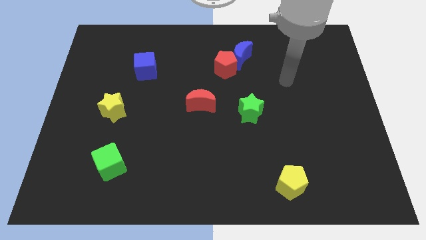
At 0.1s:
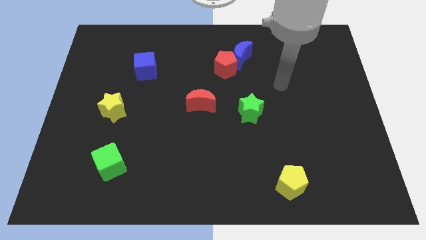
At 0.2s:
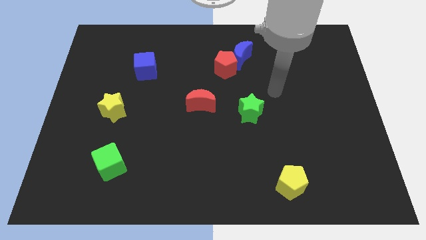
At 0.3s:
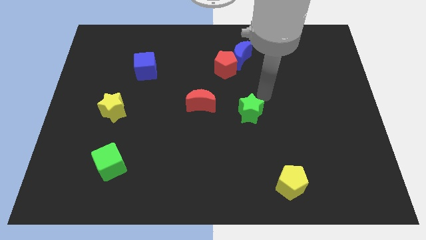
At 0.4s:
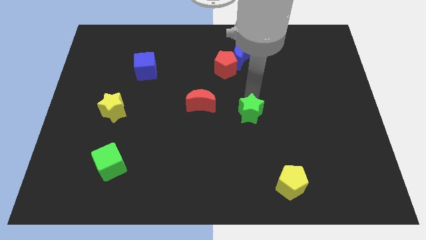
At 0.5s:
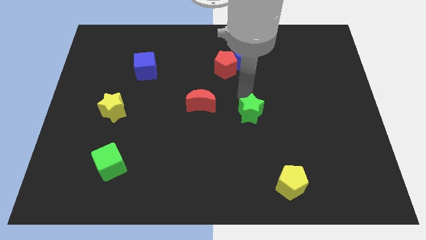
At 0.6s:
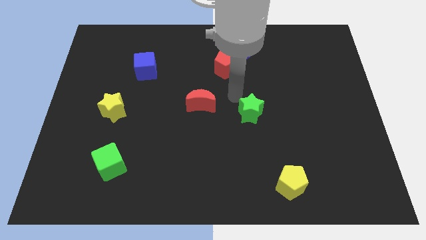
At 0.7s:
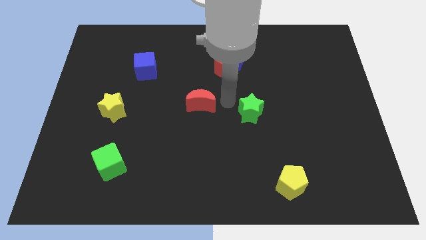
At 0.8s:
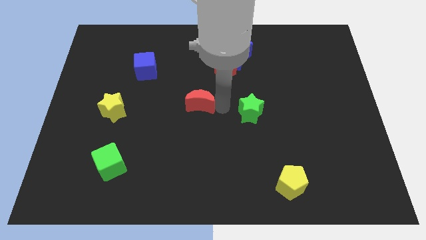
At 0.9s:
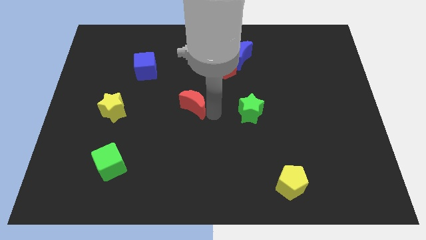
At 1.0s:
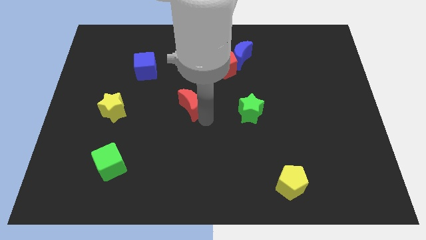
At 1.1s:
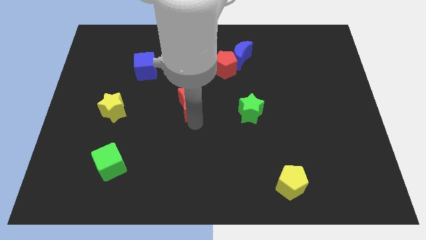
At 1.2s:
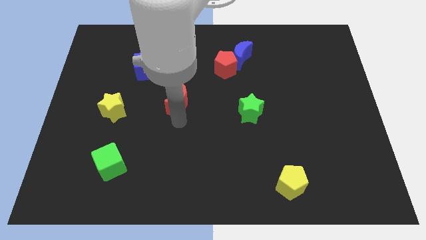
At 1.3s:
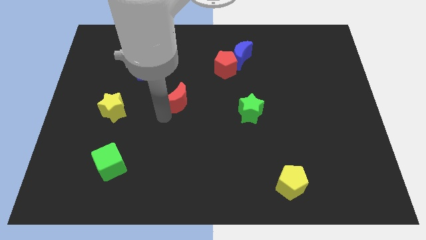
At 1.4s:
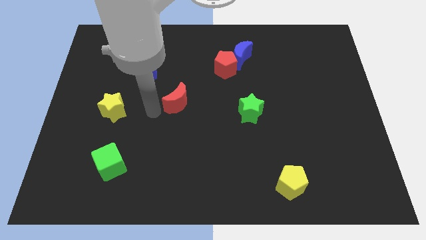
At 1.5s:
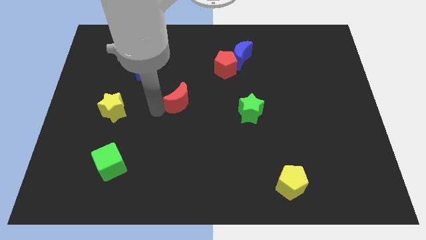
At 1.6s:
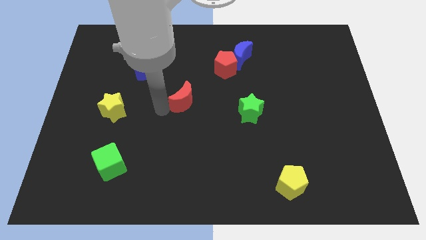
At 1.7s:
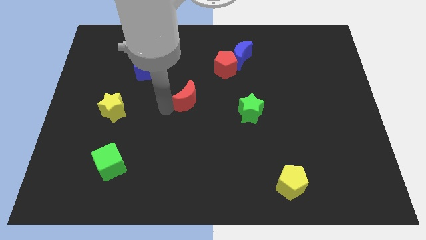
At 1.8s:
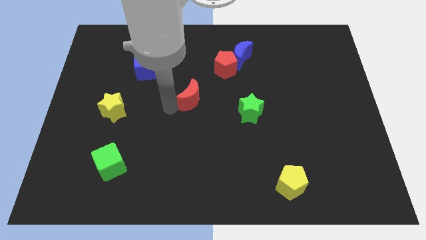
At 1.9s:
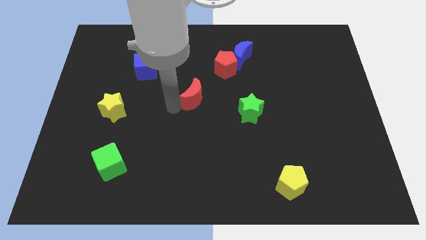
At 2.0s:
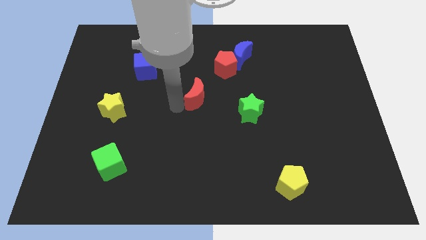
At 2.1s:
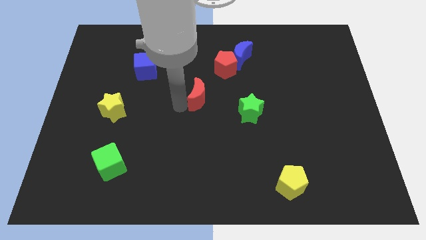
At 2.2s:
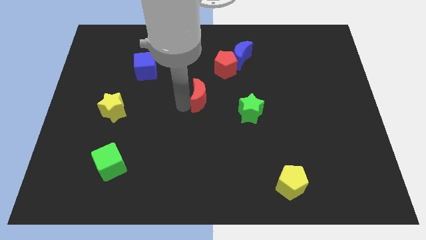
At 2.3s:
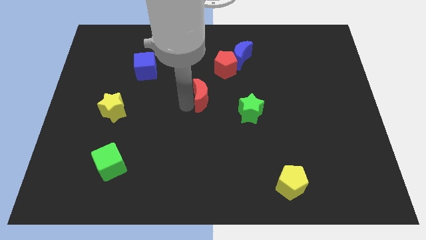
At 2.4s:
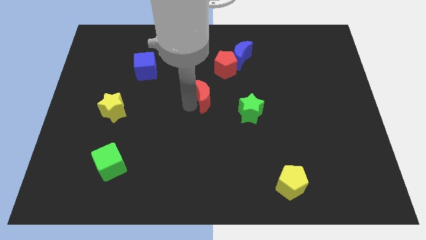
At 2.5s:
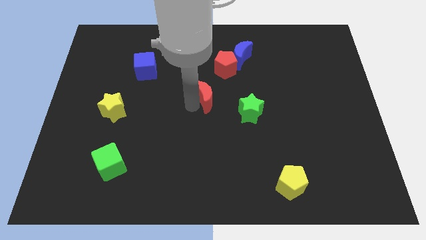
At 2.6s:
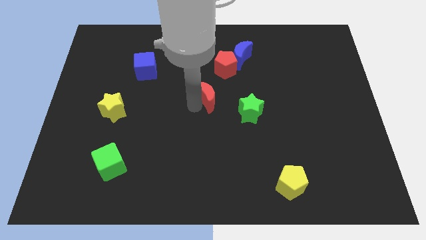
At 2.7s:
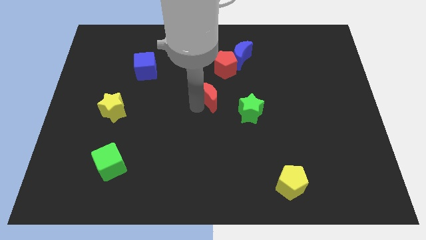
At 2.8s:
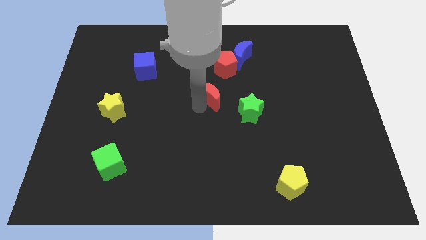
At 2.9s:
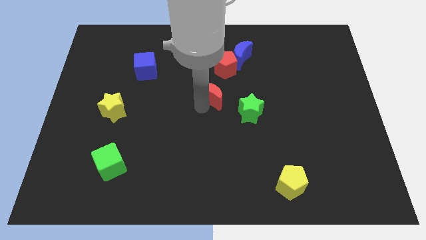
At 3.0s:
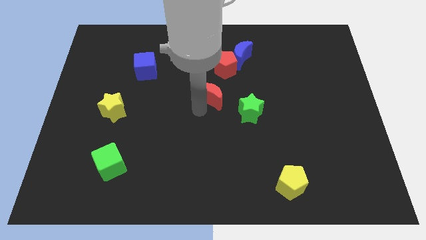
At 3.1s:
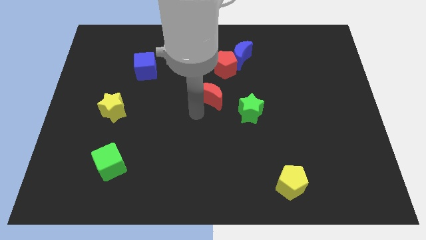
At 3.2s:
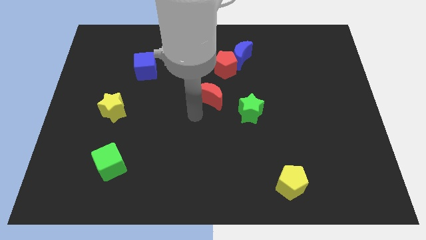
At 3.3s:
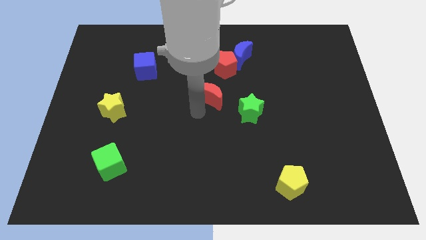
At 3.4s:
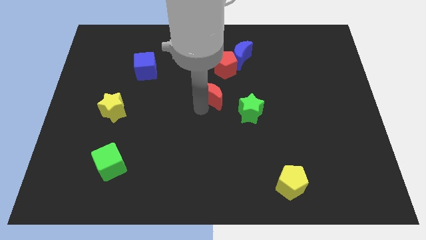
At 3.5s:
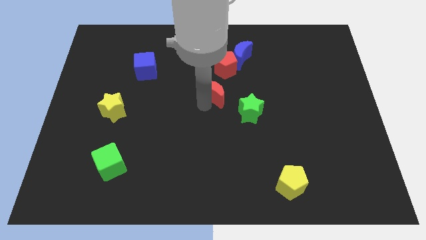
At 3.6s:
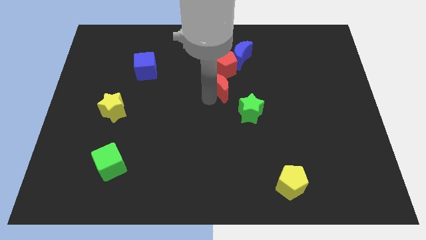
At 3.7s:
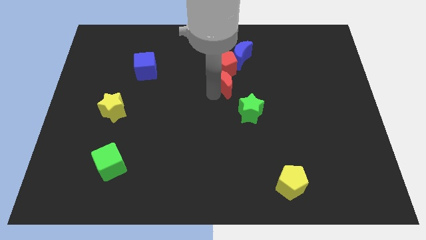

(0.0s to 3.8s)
push the red moon a little bit upwards and then to the right

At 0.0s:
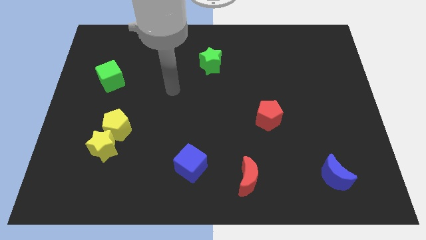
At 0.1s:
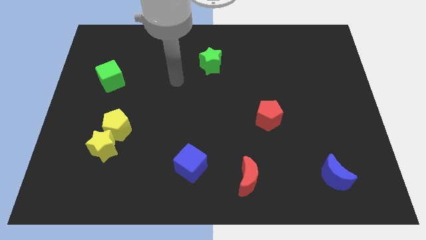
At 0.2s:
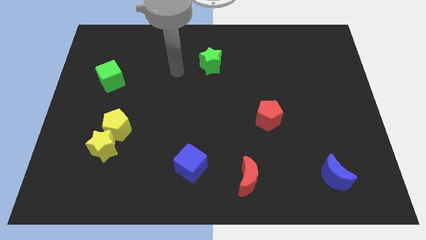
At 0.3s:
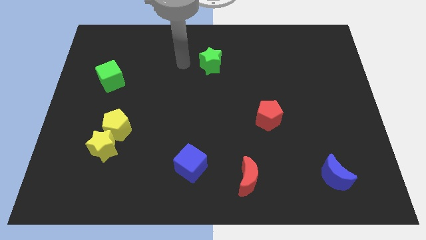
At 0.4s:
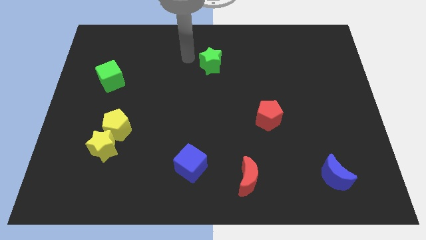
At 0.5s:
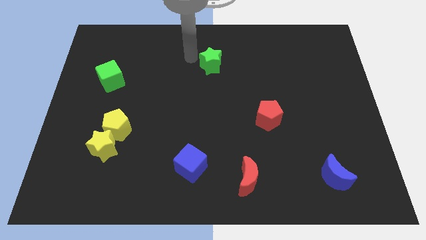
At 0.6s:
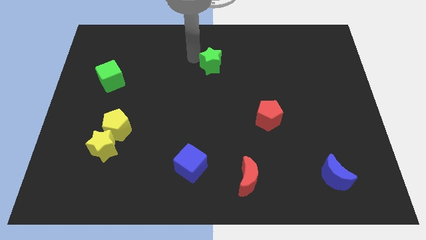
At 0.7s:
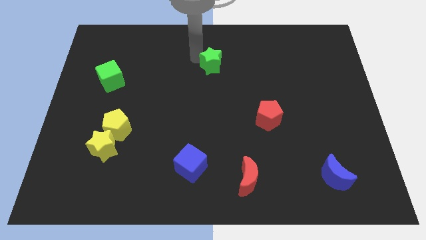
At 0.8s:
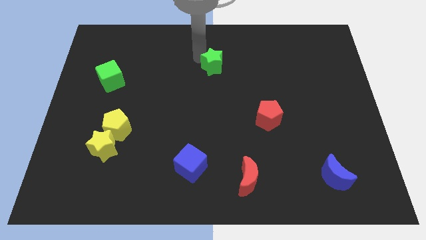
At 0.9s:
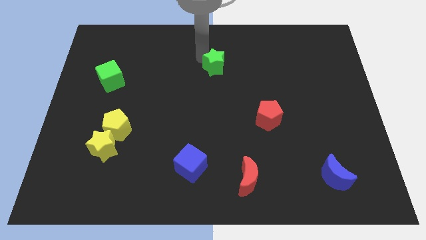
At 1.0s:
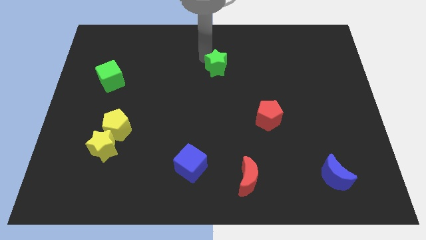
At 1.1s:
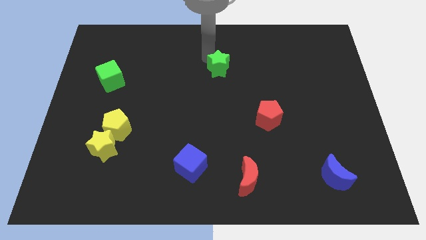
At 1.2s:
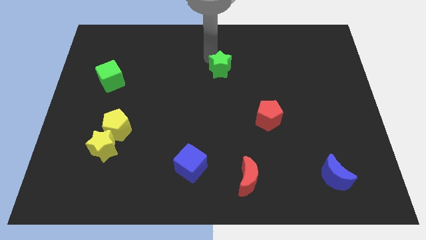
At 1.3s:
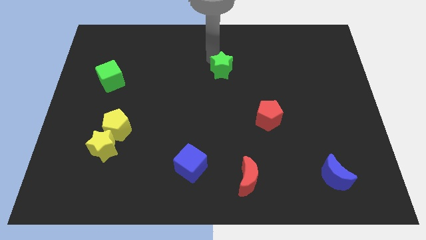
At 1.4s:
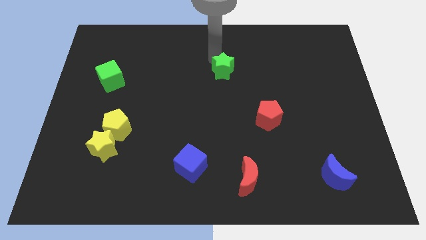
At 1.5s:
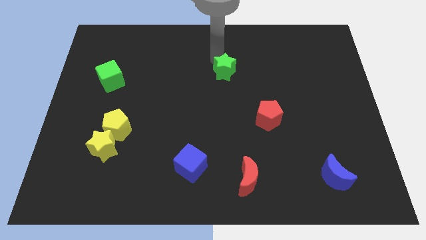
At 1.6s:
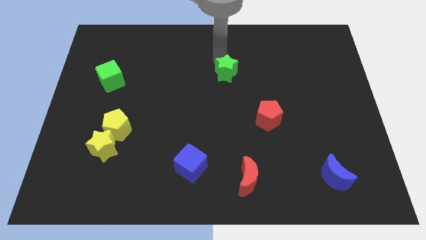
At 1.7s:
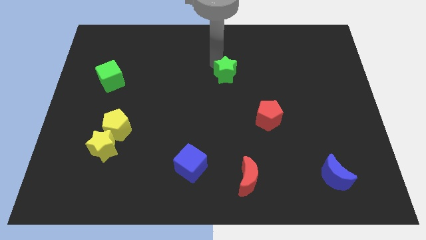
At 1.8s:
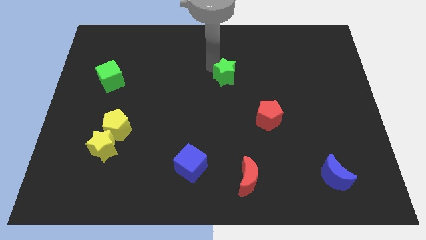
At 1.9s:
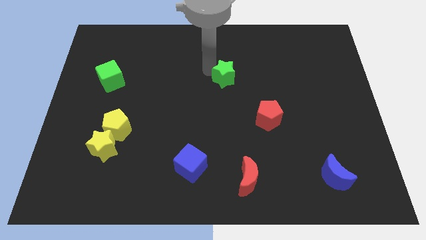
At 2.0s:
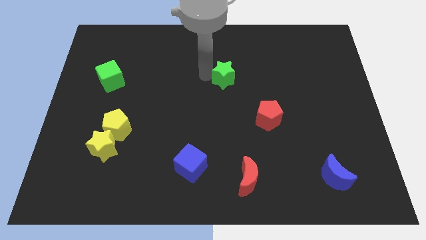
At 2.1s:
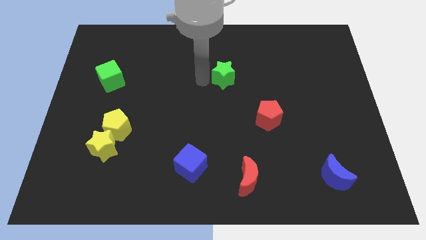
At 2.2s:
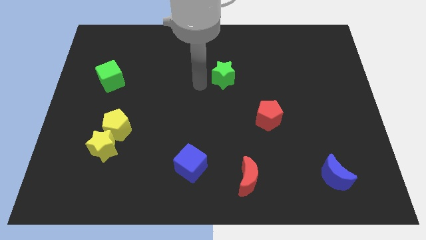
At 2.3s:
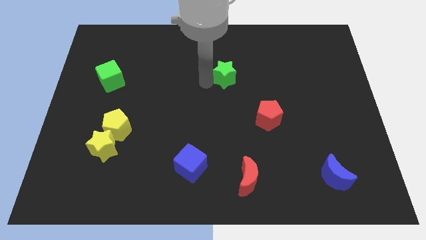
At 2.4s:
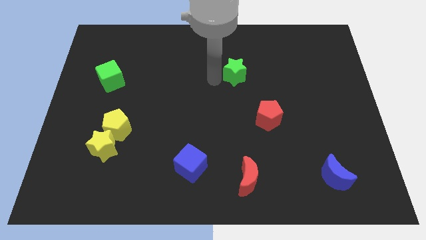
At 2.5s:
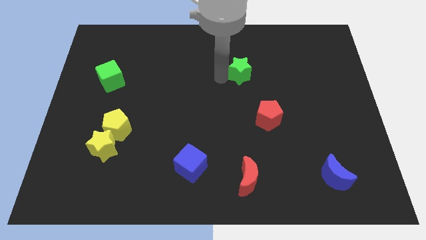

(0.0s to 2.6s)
slightly slide the green star to the right

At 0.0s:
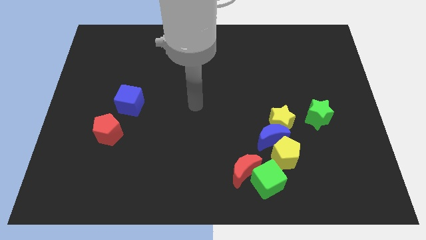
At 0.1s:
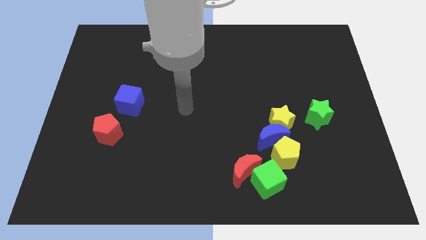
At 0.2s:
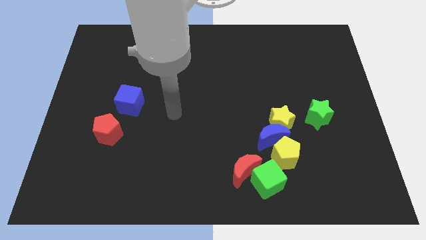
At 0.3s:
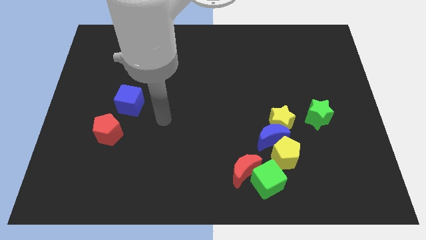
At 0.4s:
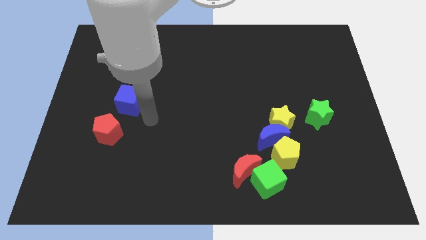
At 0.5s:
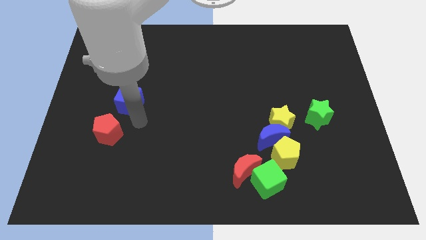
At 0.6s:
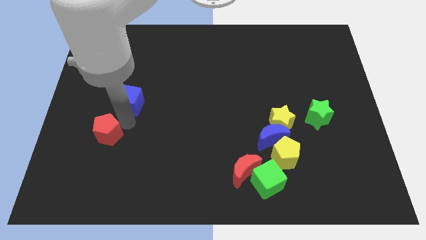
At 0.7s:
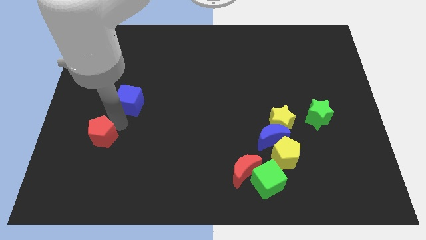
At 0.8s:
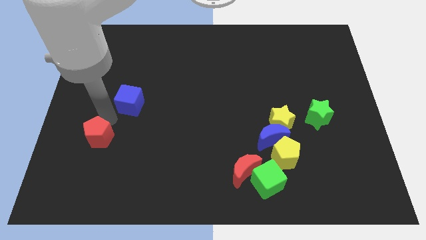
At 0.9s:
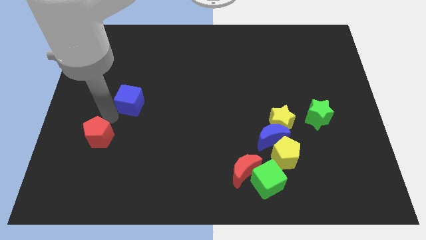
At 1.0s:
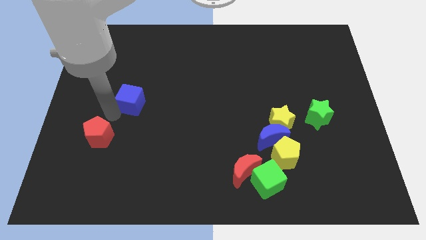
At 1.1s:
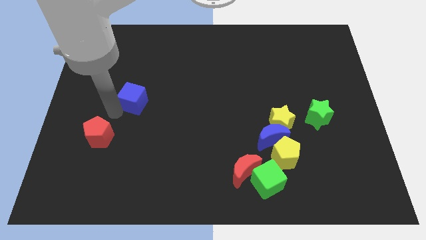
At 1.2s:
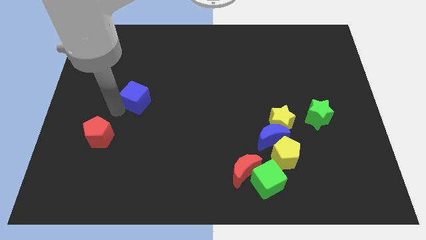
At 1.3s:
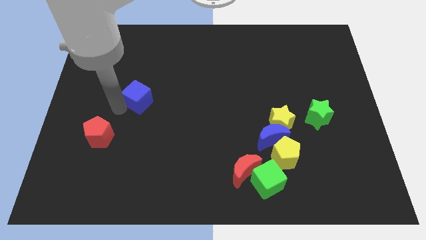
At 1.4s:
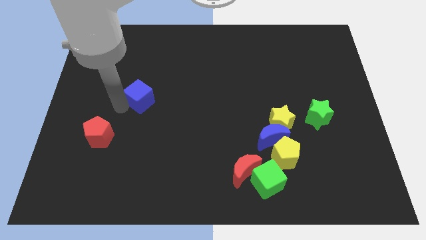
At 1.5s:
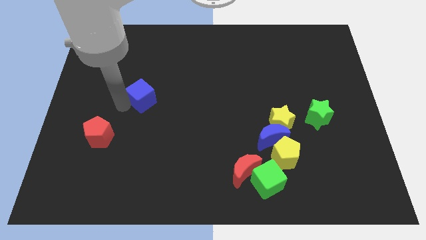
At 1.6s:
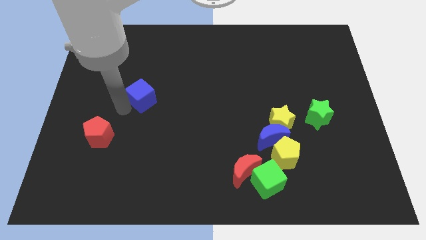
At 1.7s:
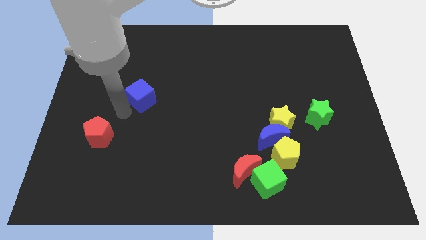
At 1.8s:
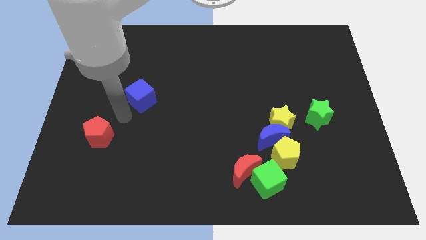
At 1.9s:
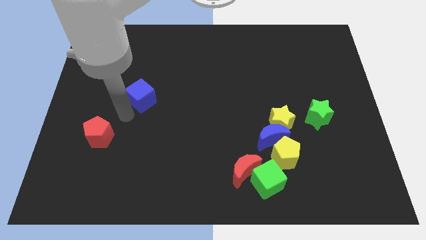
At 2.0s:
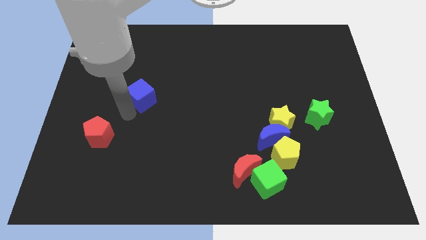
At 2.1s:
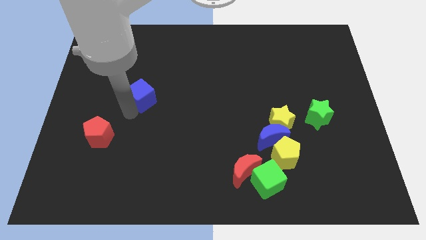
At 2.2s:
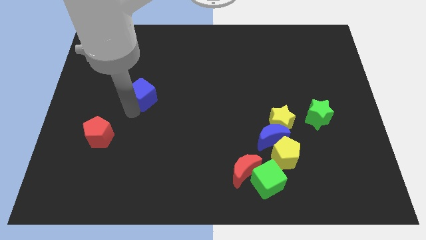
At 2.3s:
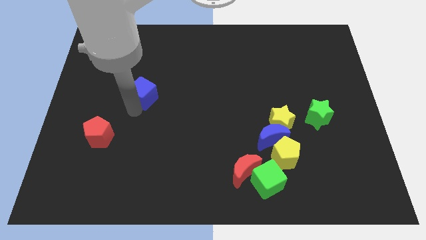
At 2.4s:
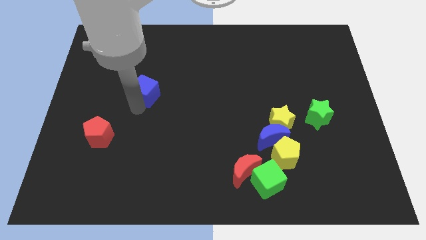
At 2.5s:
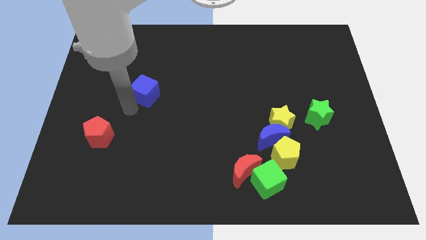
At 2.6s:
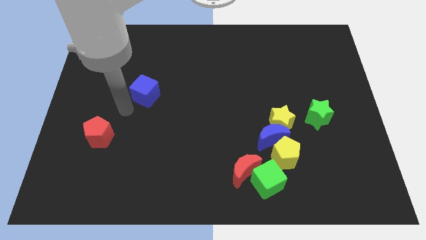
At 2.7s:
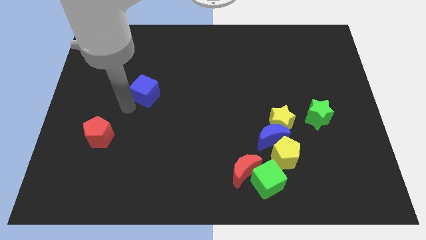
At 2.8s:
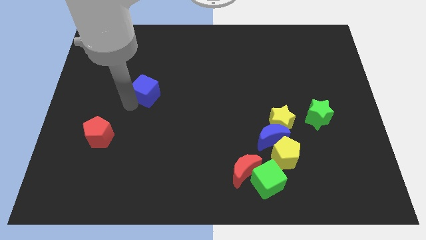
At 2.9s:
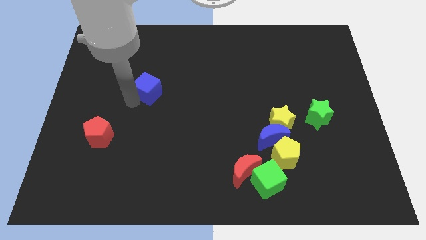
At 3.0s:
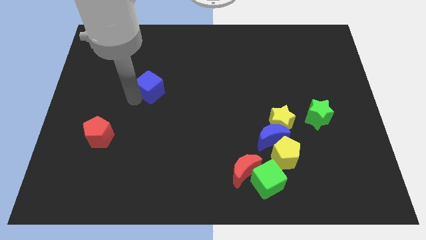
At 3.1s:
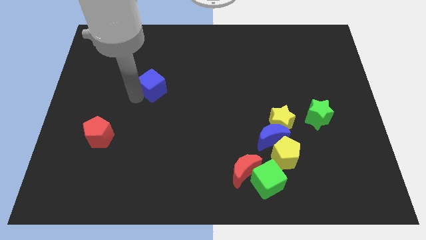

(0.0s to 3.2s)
slide the blue cube up and right slightly
